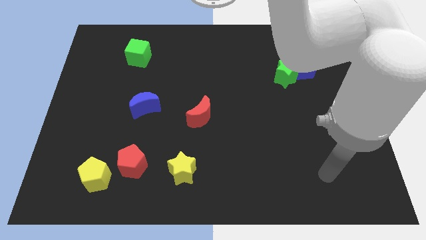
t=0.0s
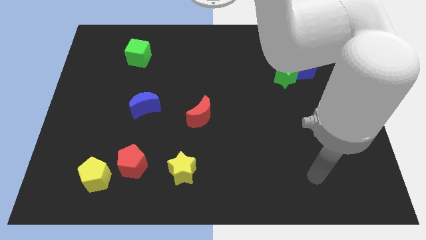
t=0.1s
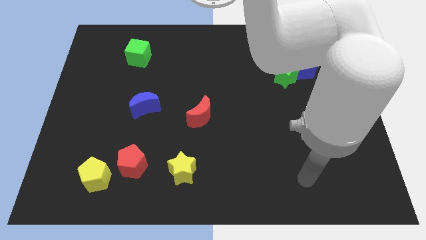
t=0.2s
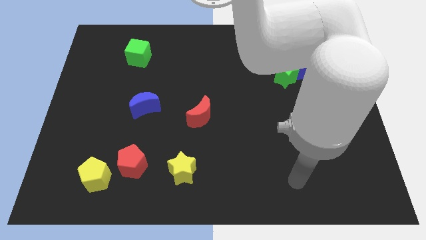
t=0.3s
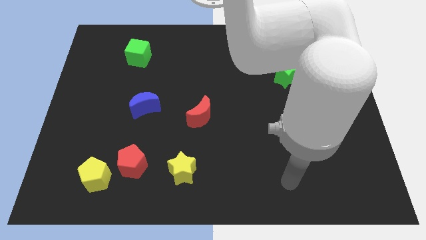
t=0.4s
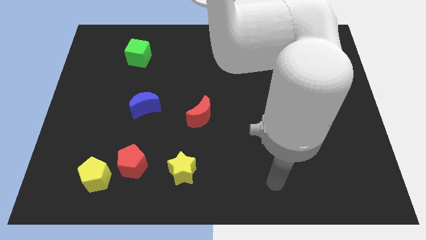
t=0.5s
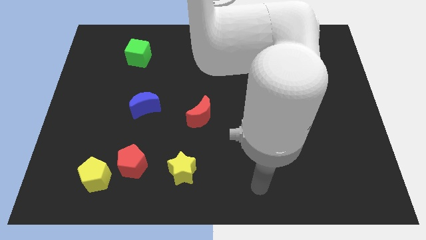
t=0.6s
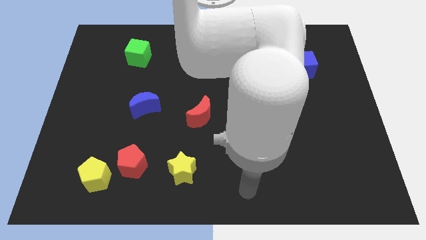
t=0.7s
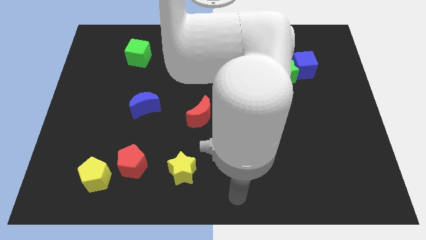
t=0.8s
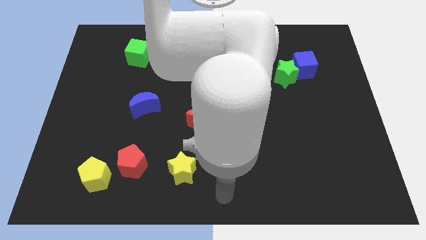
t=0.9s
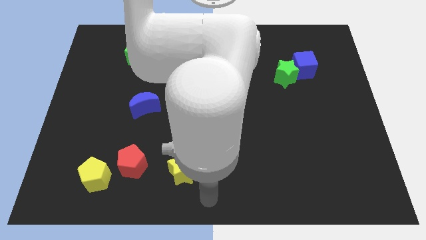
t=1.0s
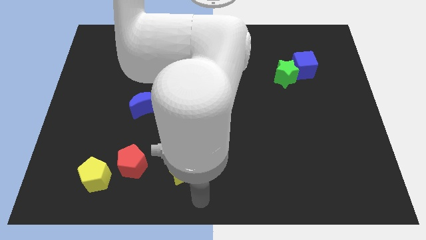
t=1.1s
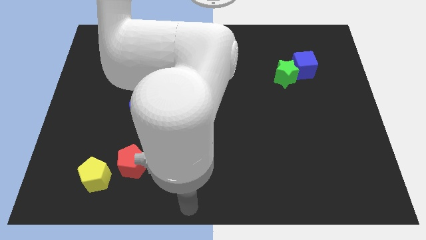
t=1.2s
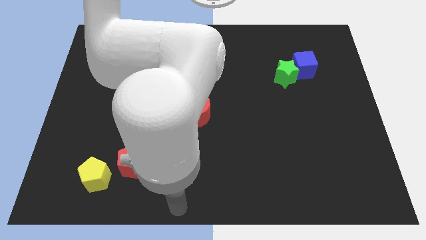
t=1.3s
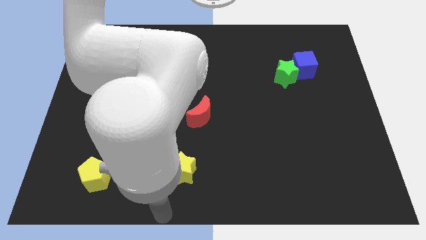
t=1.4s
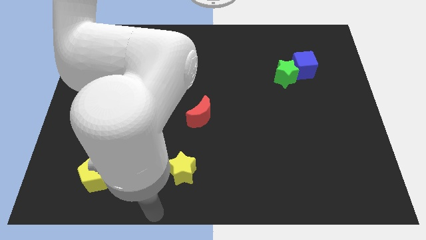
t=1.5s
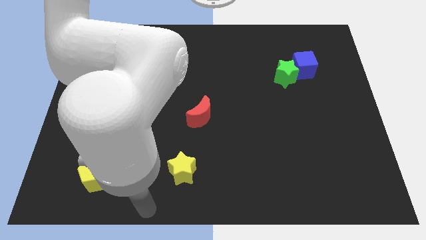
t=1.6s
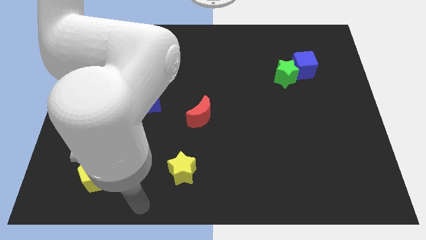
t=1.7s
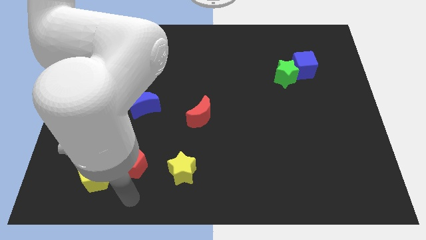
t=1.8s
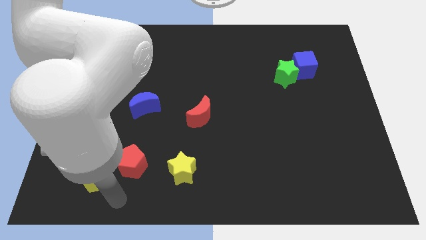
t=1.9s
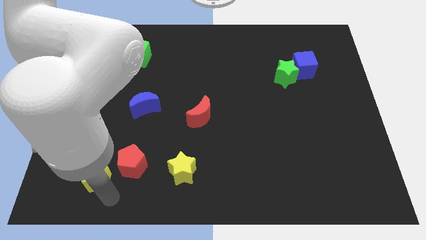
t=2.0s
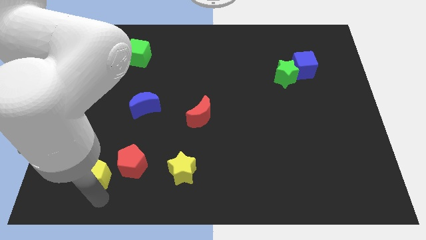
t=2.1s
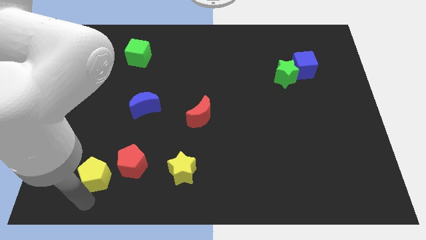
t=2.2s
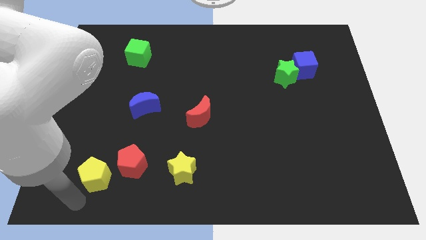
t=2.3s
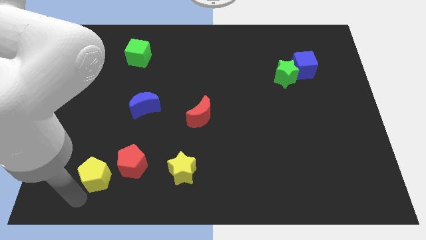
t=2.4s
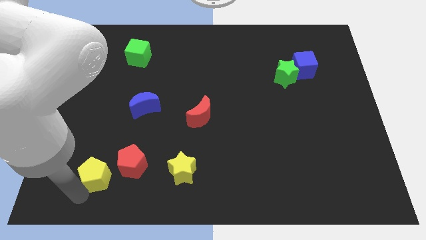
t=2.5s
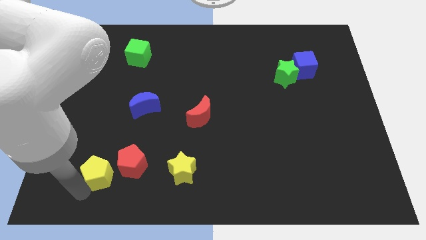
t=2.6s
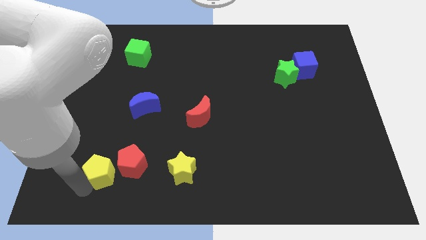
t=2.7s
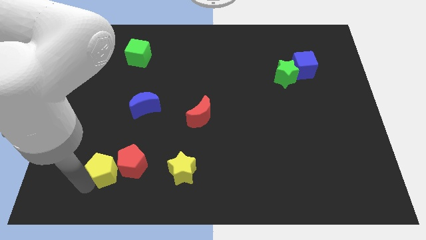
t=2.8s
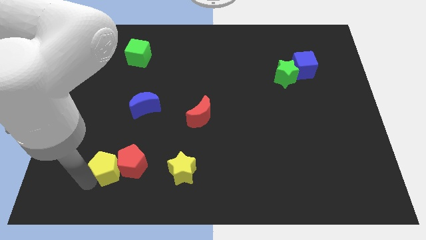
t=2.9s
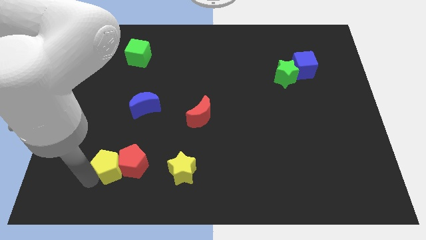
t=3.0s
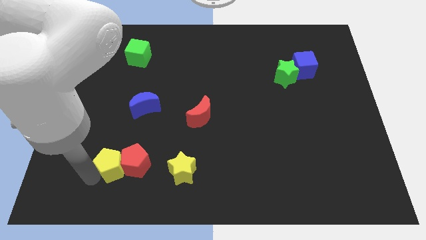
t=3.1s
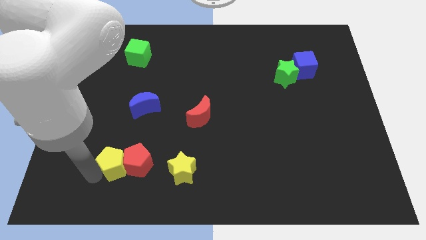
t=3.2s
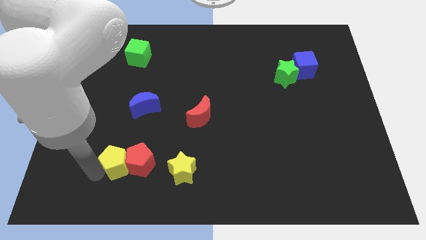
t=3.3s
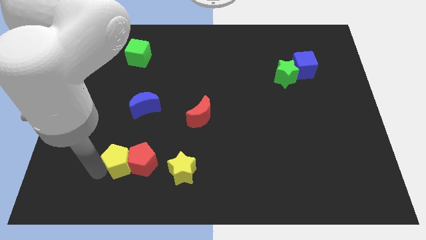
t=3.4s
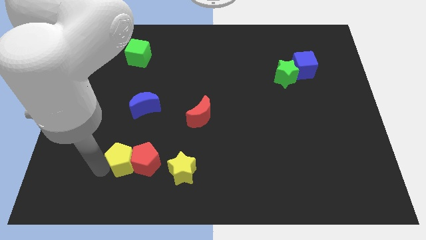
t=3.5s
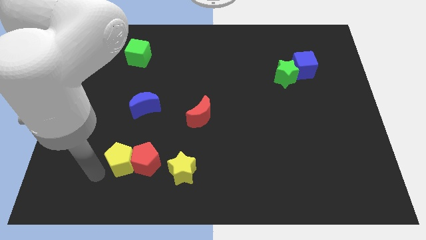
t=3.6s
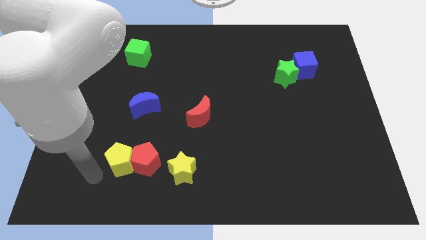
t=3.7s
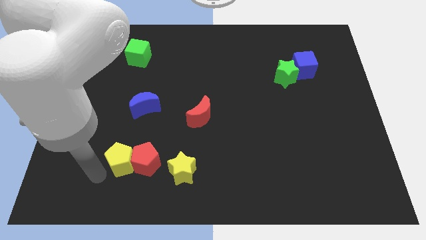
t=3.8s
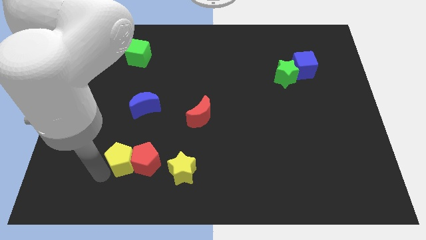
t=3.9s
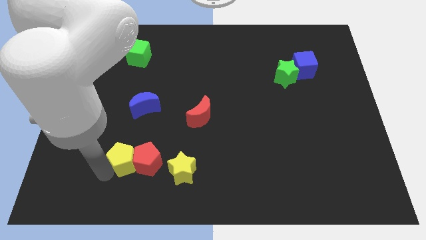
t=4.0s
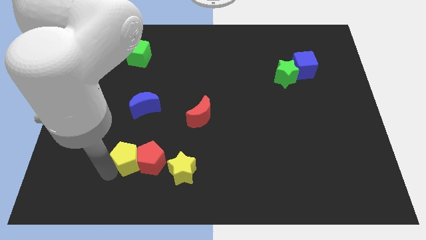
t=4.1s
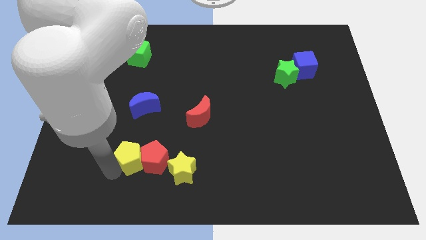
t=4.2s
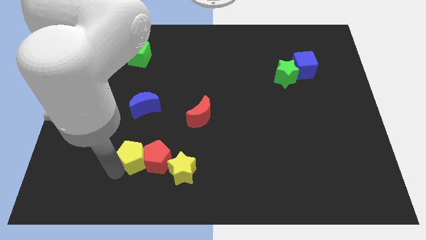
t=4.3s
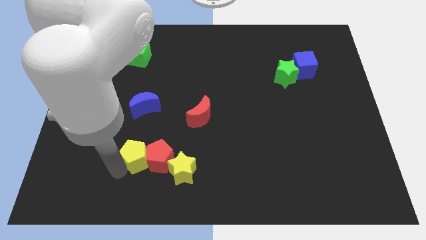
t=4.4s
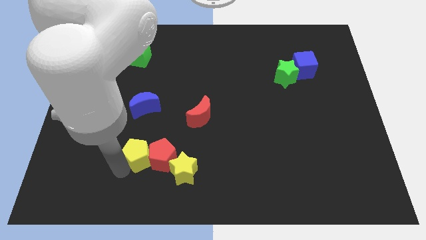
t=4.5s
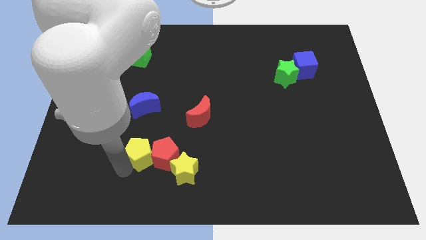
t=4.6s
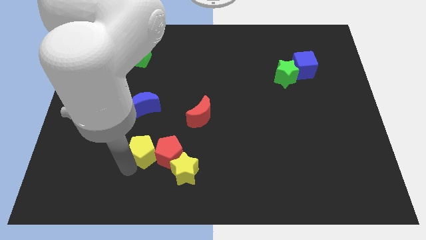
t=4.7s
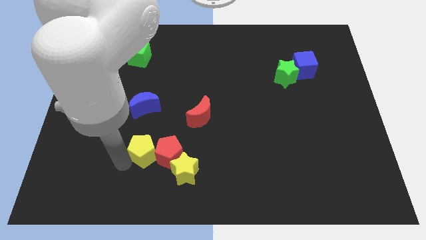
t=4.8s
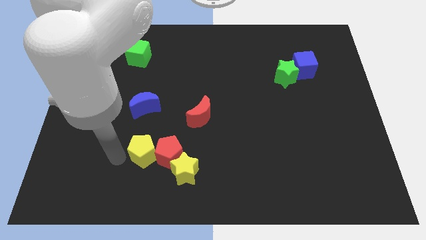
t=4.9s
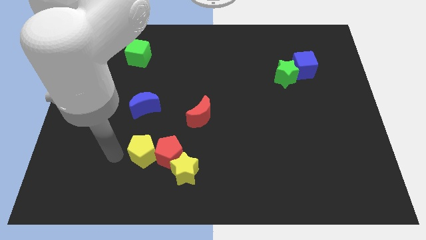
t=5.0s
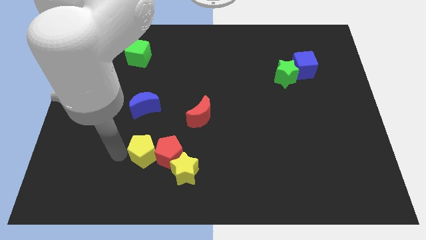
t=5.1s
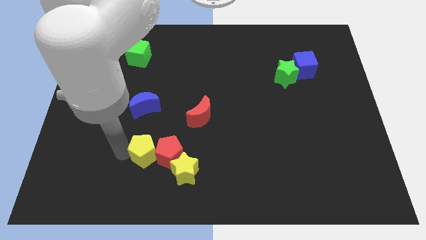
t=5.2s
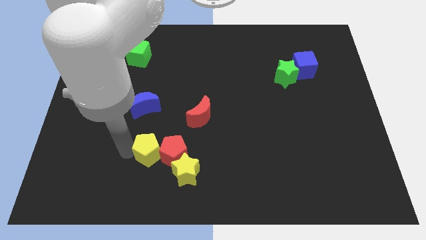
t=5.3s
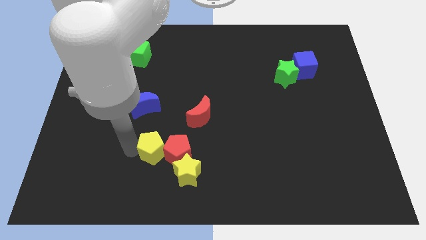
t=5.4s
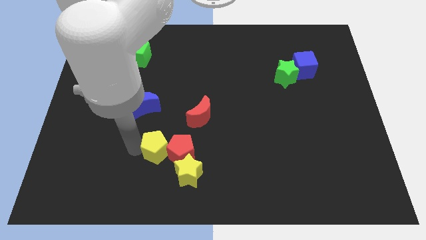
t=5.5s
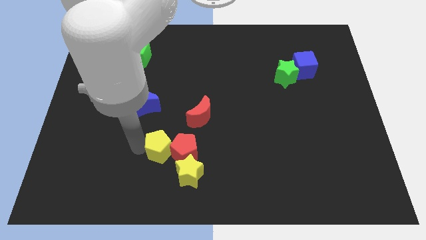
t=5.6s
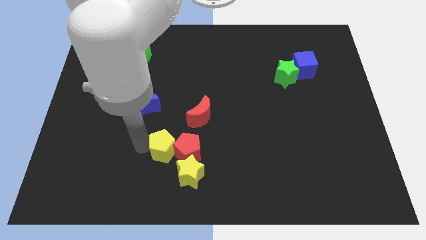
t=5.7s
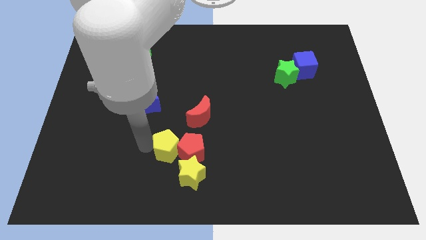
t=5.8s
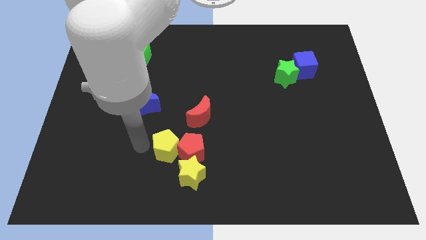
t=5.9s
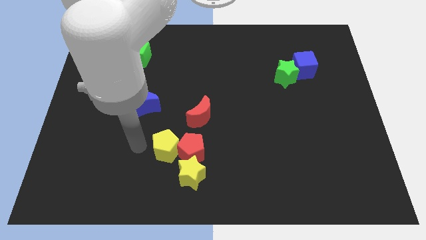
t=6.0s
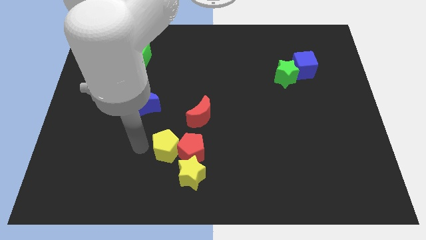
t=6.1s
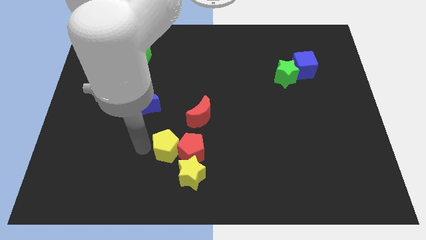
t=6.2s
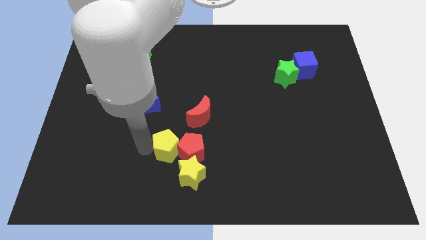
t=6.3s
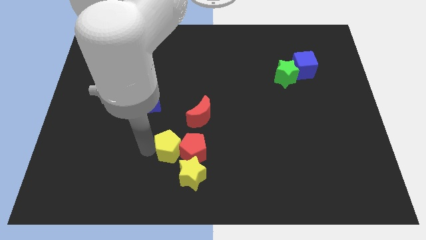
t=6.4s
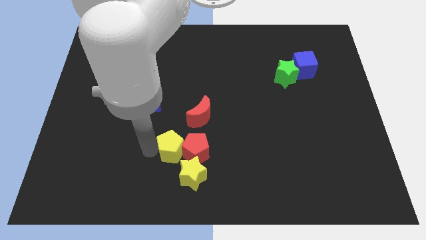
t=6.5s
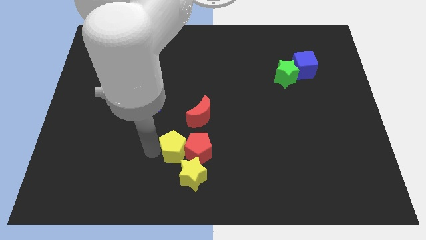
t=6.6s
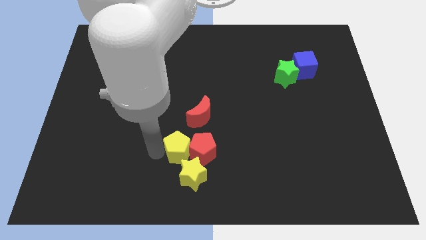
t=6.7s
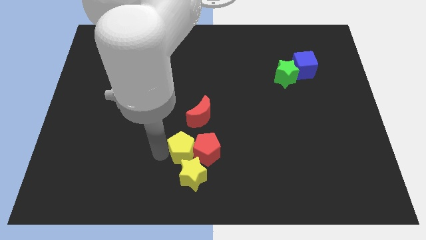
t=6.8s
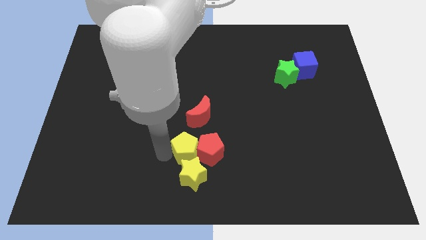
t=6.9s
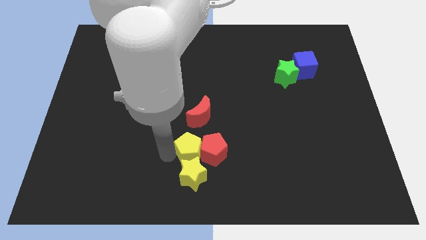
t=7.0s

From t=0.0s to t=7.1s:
put the yellow pentagon diagonally up and to the right of the yellow star
